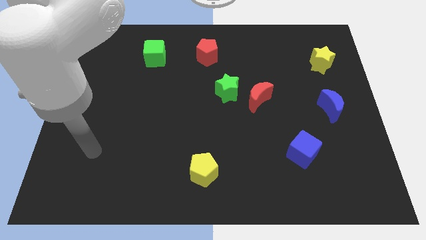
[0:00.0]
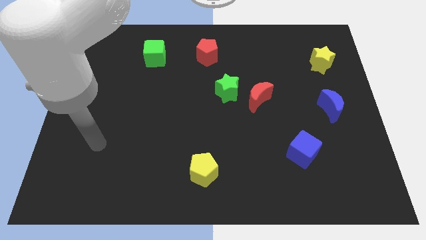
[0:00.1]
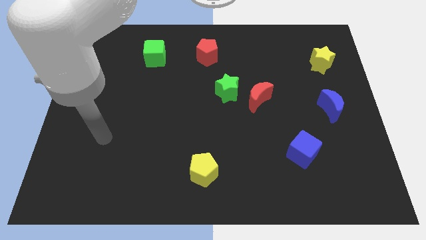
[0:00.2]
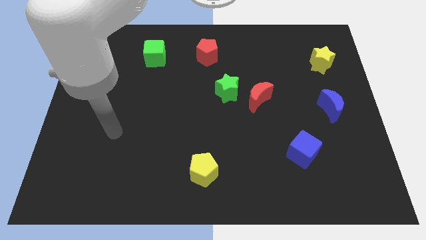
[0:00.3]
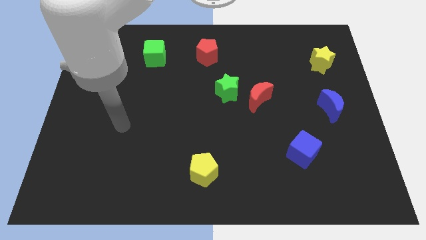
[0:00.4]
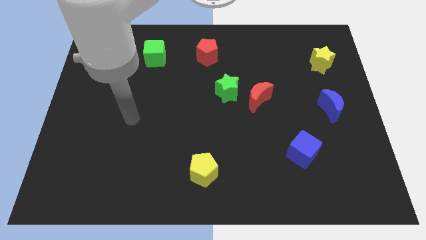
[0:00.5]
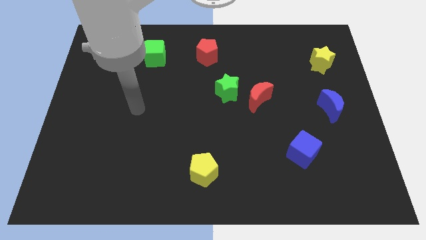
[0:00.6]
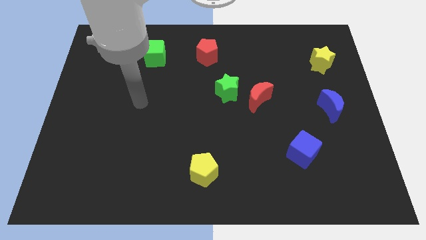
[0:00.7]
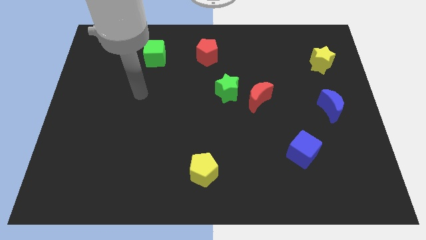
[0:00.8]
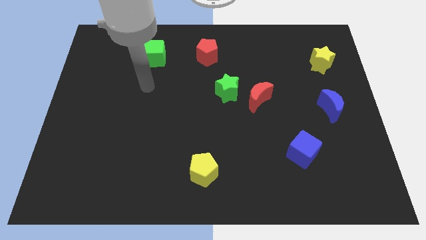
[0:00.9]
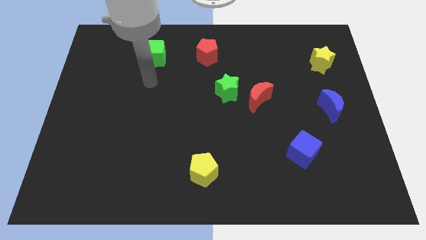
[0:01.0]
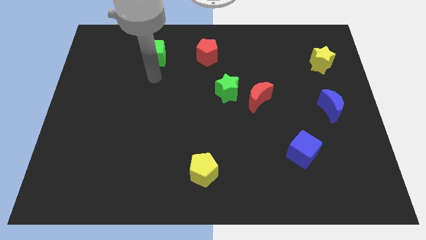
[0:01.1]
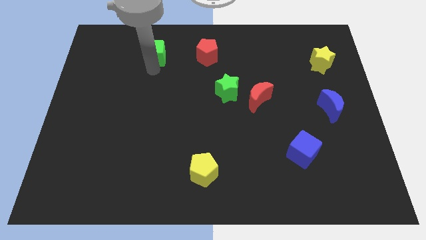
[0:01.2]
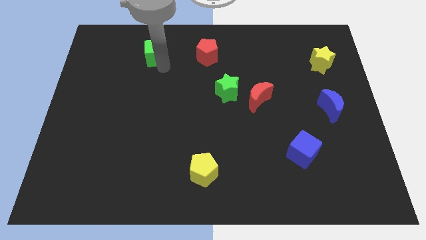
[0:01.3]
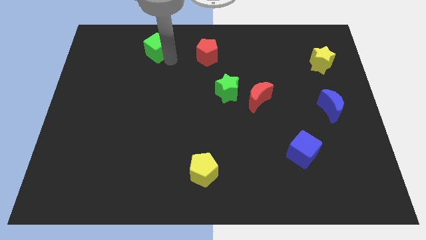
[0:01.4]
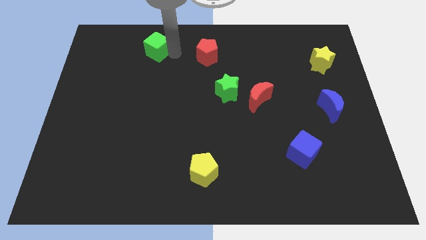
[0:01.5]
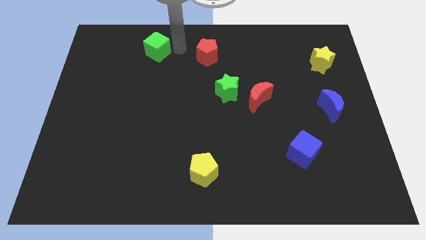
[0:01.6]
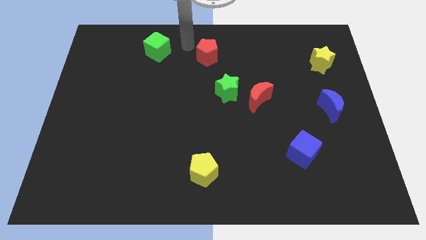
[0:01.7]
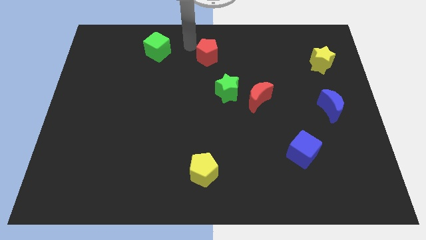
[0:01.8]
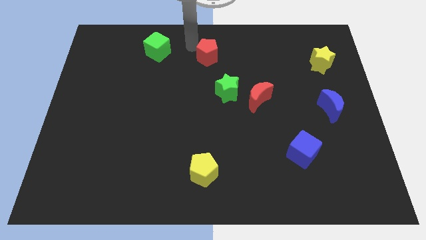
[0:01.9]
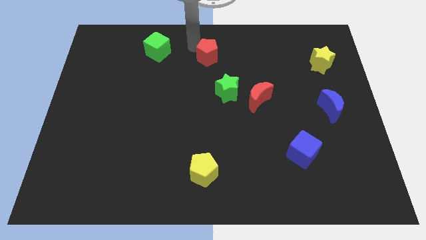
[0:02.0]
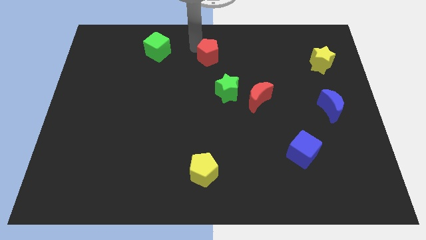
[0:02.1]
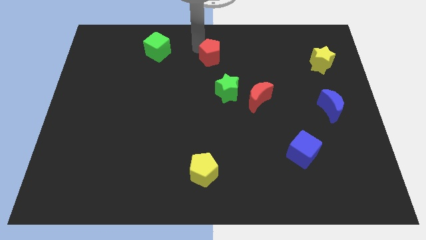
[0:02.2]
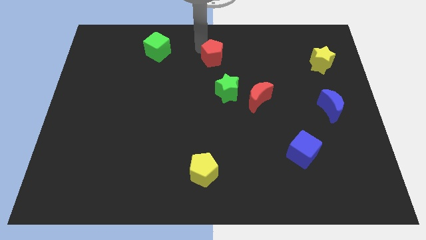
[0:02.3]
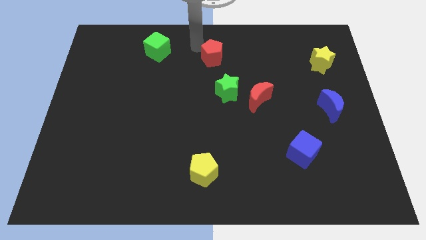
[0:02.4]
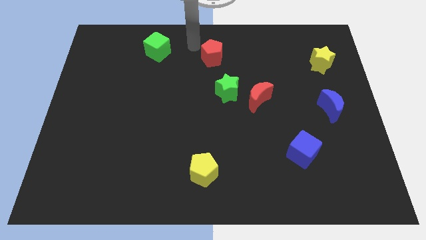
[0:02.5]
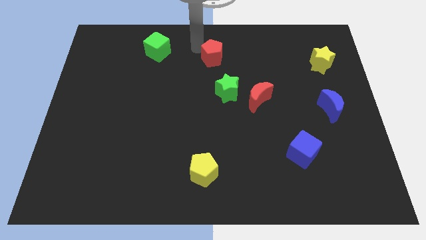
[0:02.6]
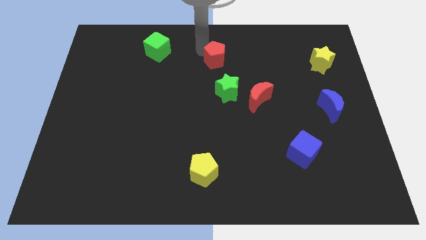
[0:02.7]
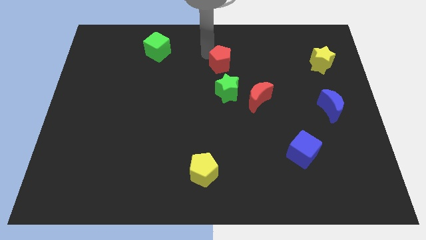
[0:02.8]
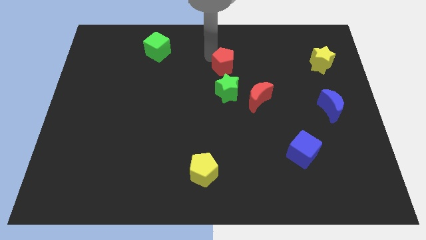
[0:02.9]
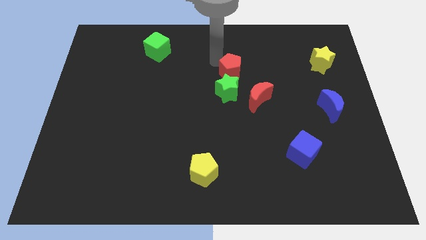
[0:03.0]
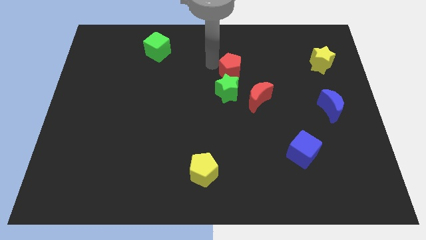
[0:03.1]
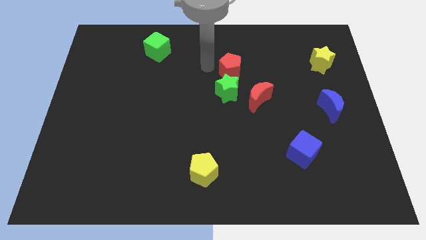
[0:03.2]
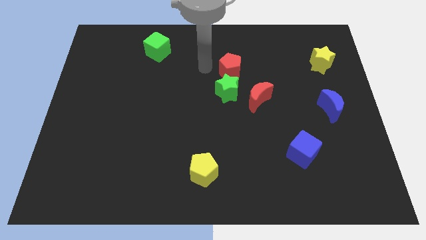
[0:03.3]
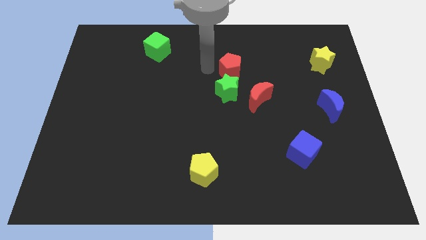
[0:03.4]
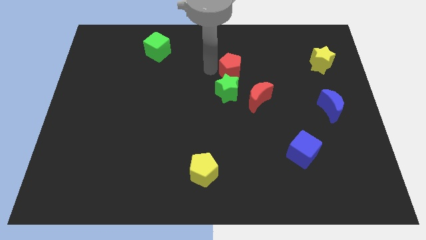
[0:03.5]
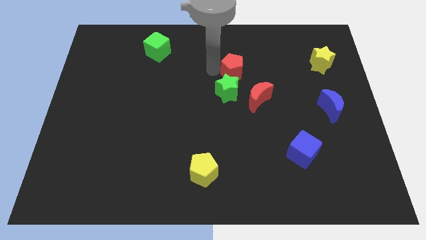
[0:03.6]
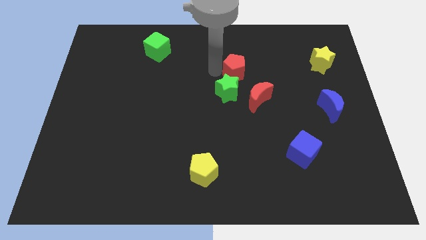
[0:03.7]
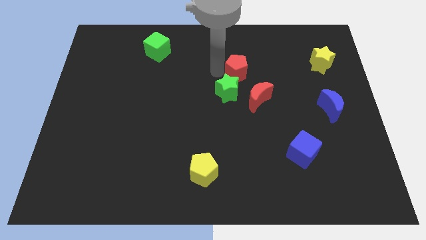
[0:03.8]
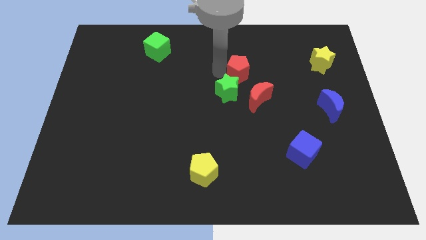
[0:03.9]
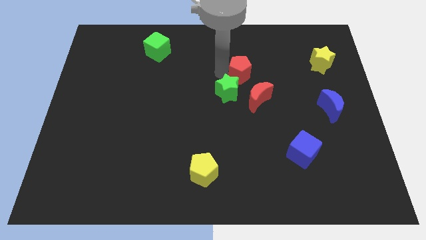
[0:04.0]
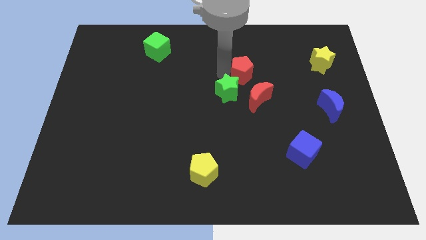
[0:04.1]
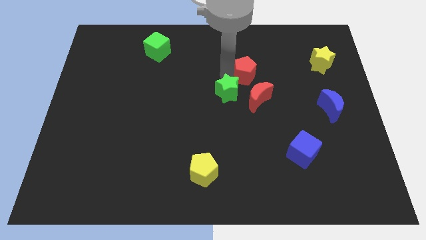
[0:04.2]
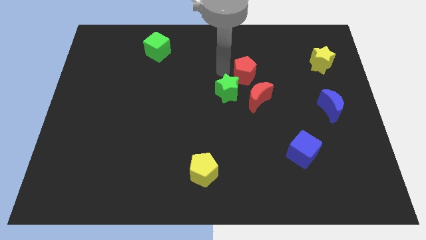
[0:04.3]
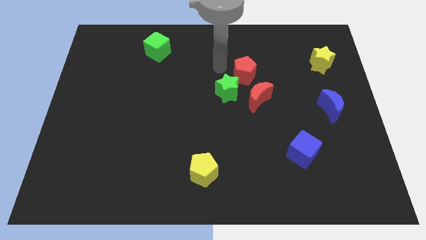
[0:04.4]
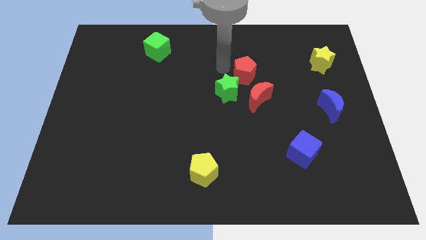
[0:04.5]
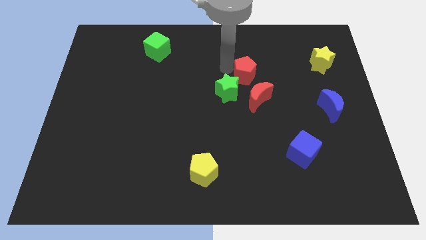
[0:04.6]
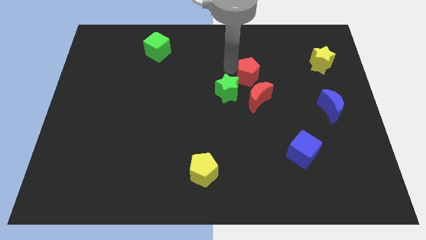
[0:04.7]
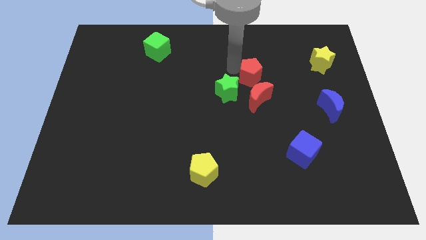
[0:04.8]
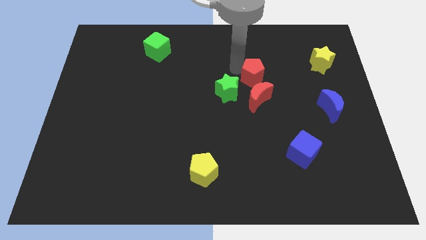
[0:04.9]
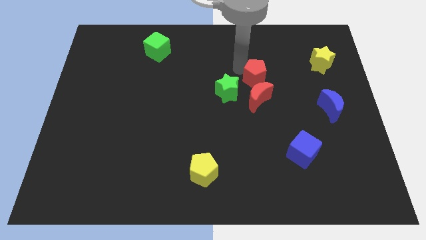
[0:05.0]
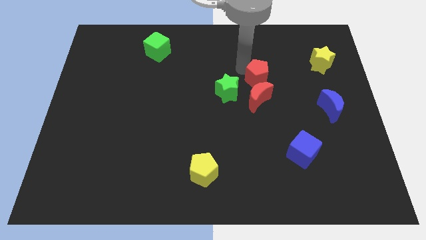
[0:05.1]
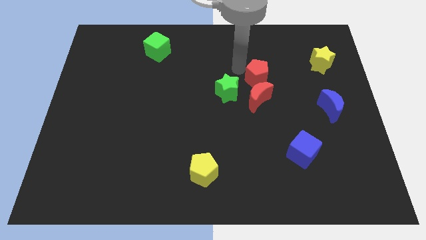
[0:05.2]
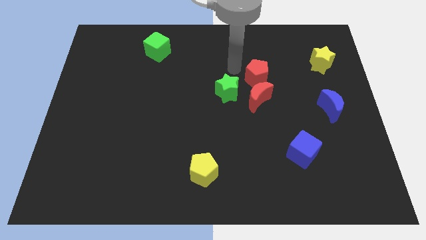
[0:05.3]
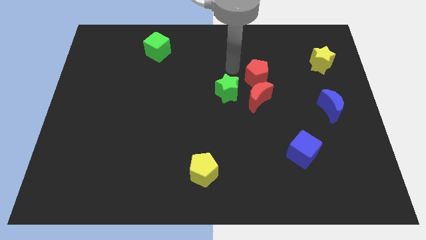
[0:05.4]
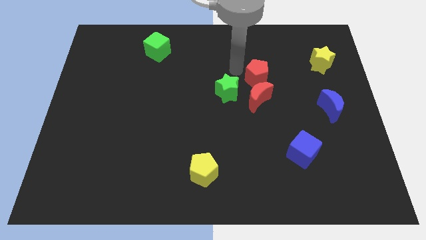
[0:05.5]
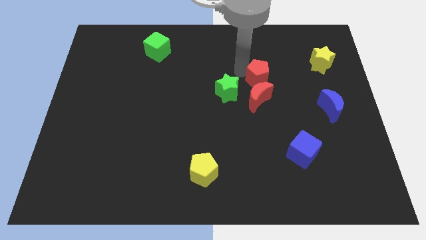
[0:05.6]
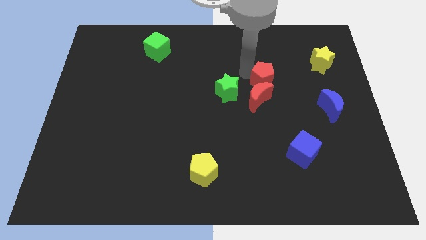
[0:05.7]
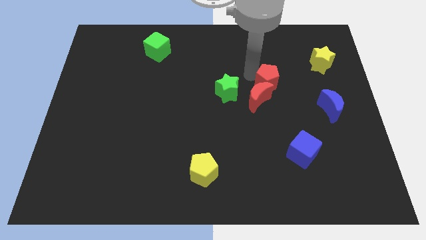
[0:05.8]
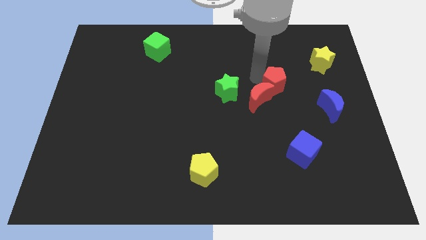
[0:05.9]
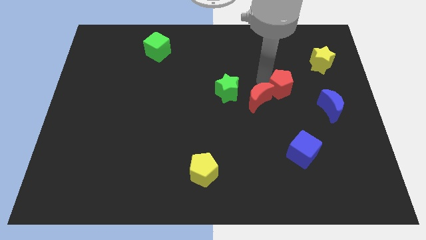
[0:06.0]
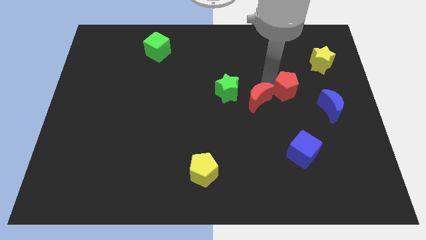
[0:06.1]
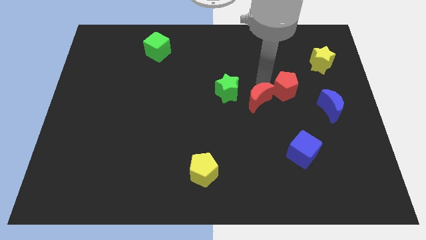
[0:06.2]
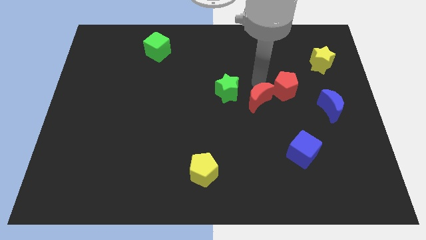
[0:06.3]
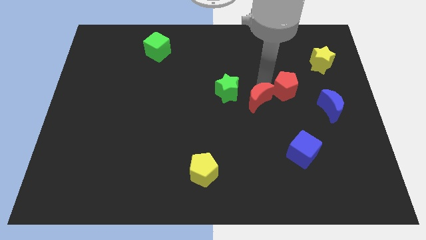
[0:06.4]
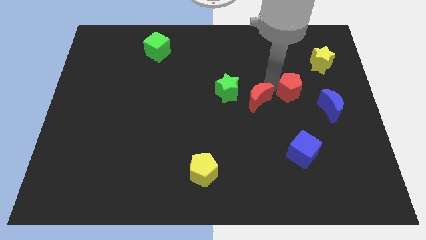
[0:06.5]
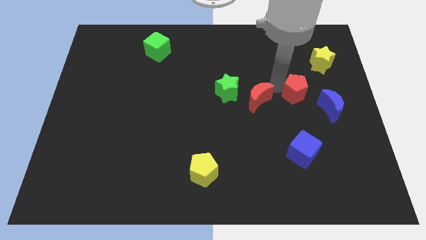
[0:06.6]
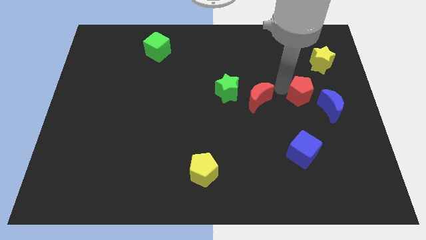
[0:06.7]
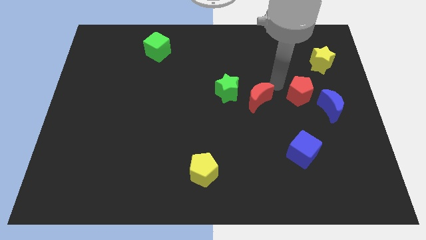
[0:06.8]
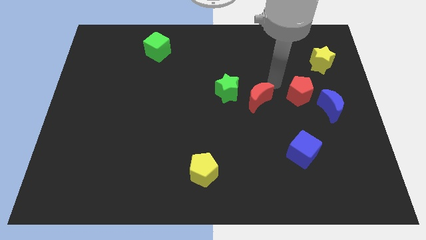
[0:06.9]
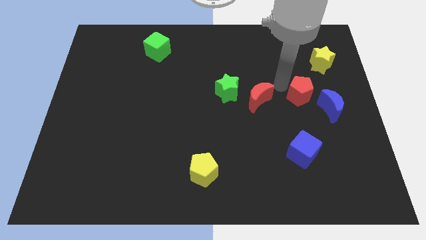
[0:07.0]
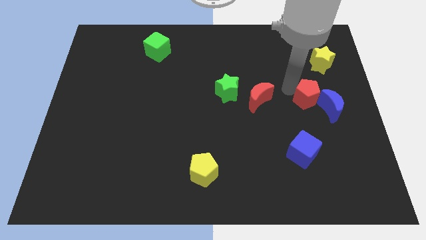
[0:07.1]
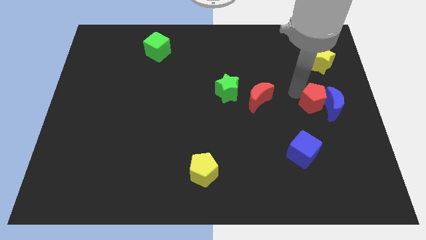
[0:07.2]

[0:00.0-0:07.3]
push the red pentagon to the blue moon

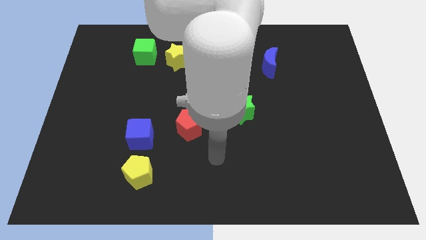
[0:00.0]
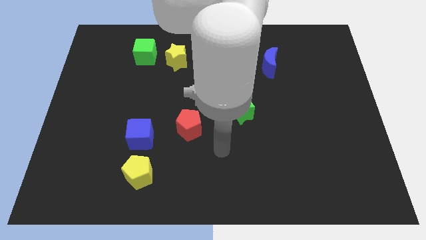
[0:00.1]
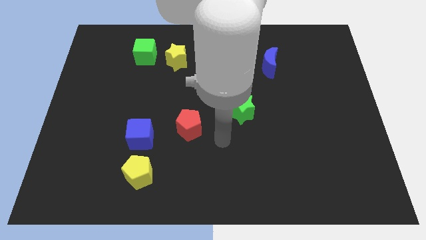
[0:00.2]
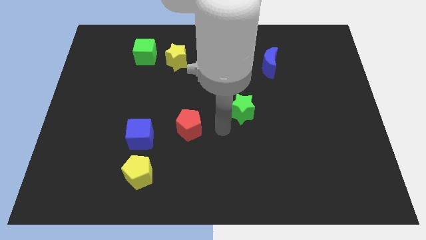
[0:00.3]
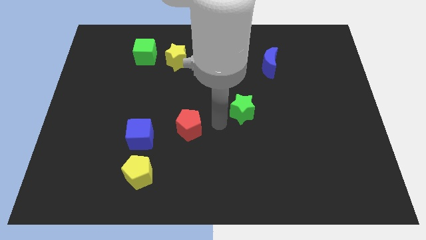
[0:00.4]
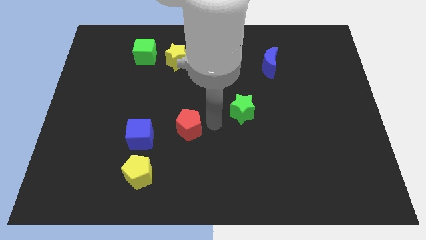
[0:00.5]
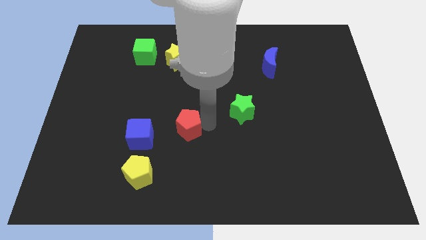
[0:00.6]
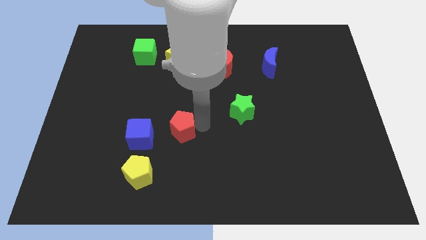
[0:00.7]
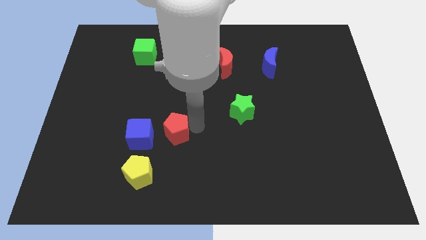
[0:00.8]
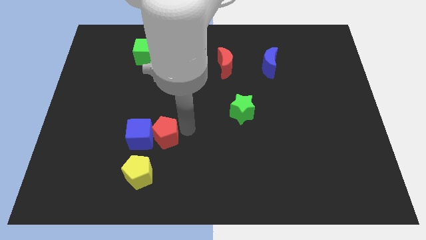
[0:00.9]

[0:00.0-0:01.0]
put the red pentagon next to the blue cube
